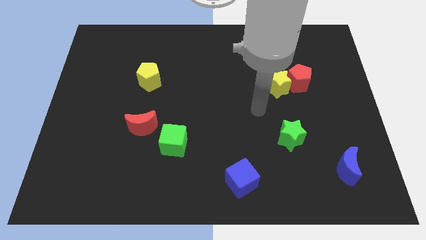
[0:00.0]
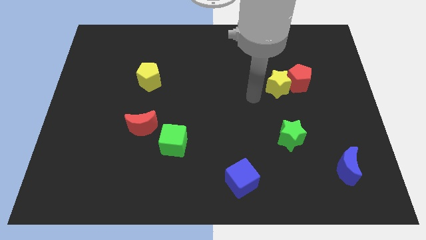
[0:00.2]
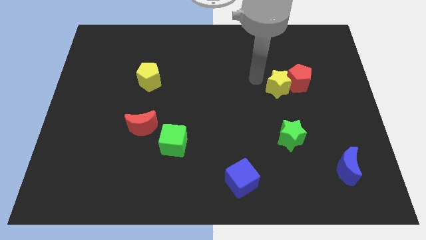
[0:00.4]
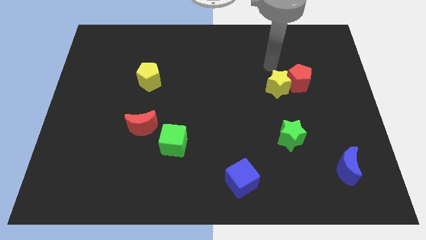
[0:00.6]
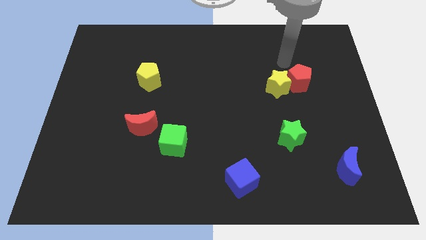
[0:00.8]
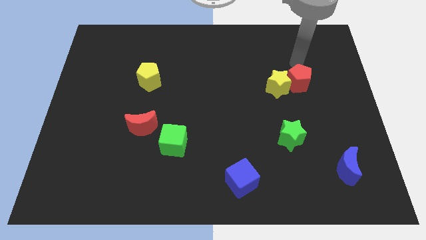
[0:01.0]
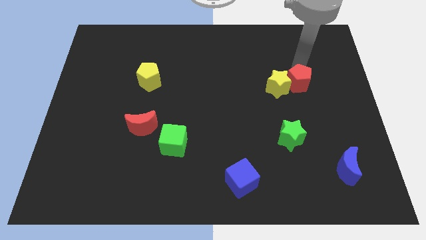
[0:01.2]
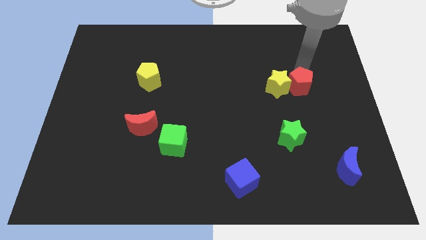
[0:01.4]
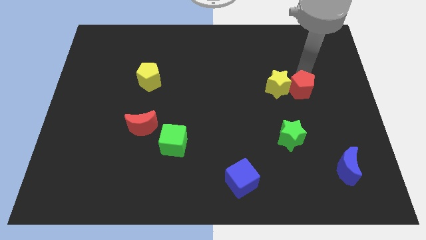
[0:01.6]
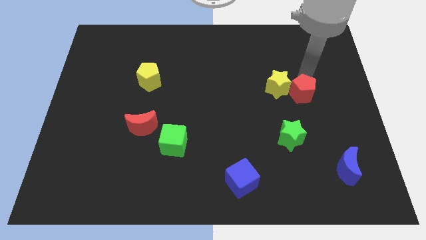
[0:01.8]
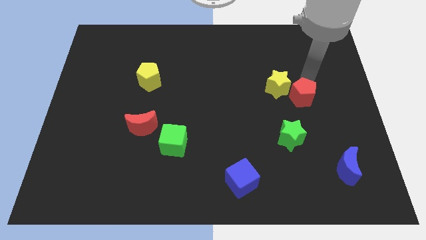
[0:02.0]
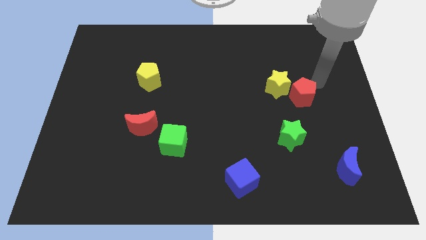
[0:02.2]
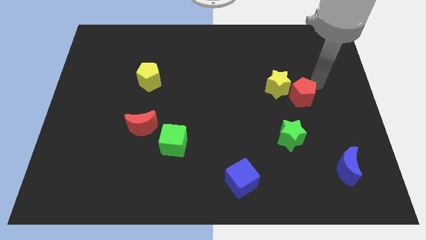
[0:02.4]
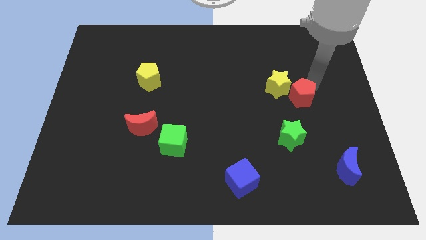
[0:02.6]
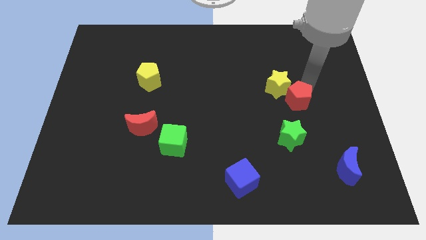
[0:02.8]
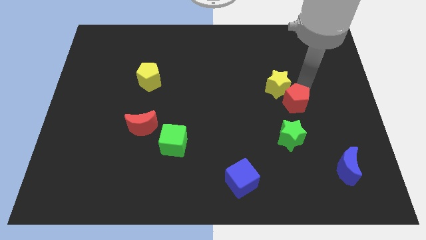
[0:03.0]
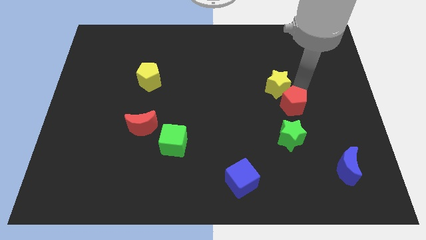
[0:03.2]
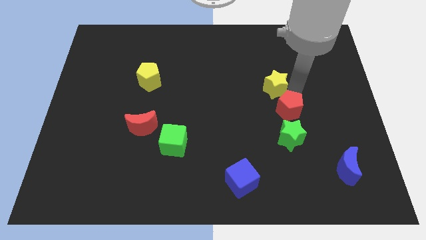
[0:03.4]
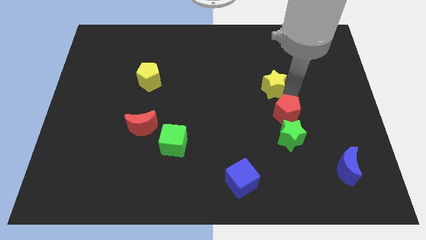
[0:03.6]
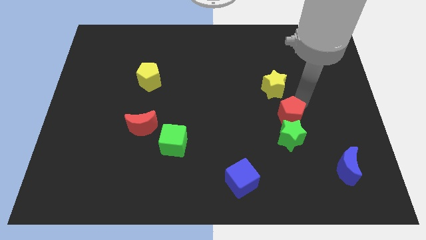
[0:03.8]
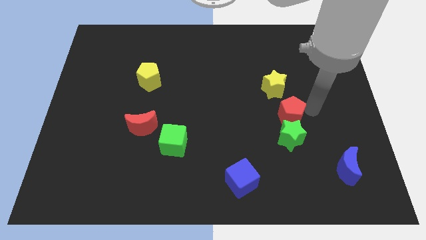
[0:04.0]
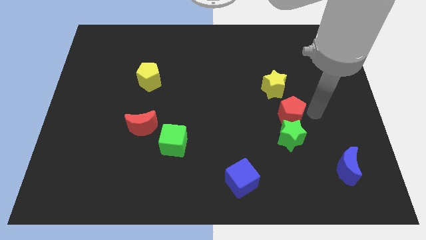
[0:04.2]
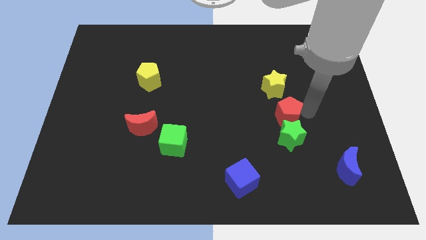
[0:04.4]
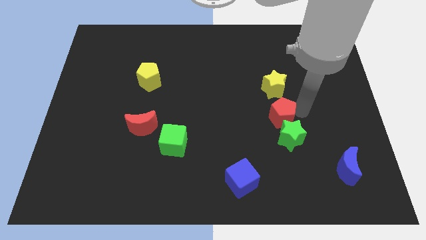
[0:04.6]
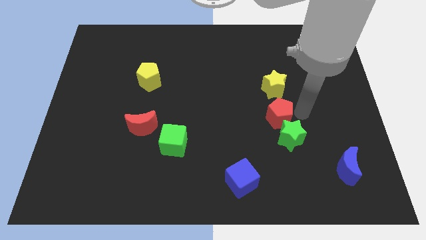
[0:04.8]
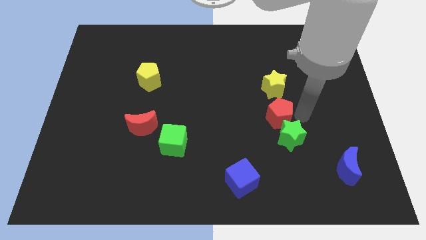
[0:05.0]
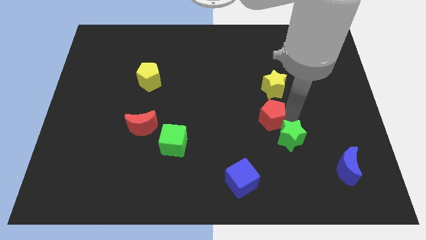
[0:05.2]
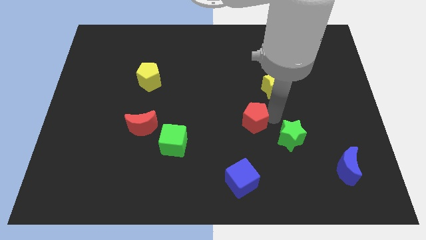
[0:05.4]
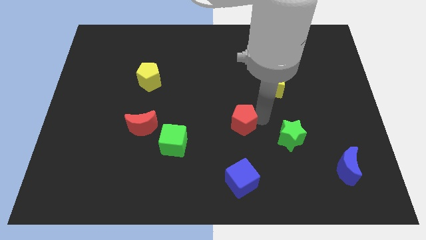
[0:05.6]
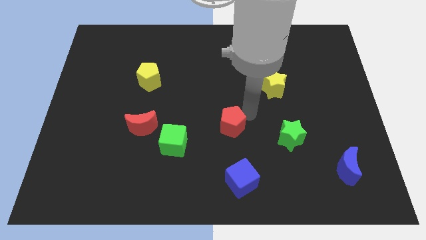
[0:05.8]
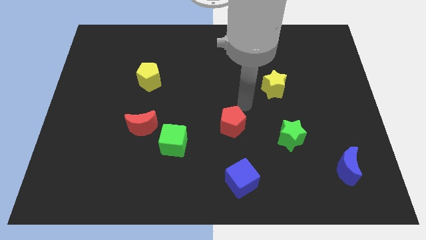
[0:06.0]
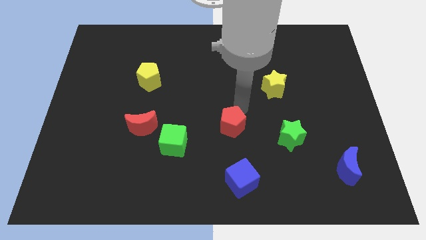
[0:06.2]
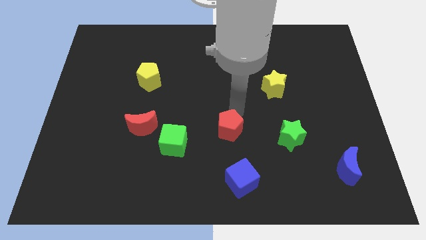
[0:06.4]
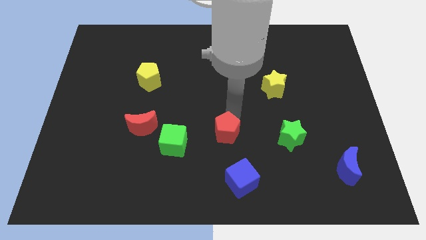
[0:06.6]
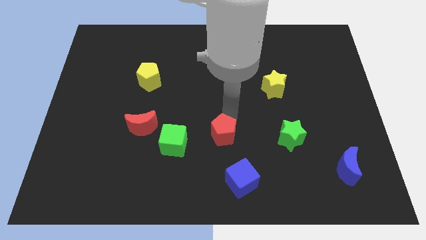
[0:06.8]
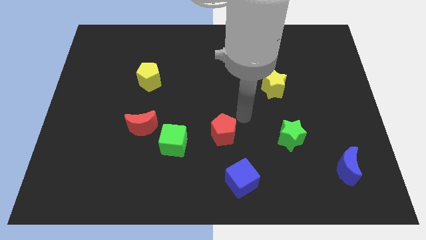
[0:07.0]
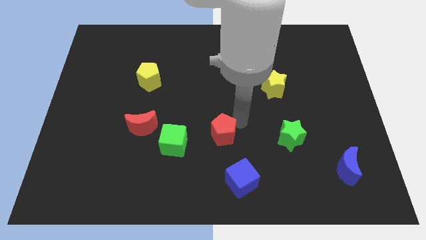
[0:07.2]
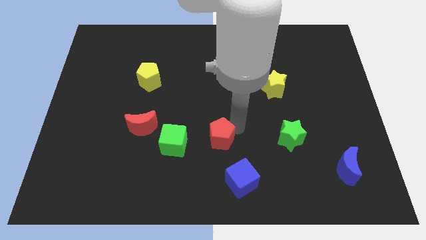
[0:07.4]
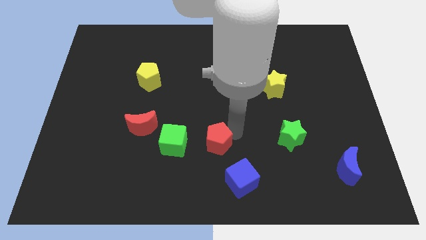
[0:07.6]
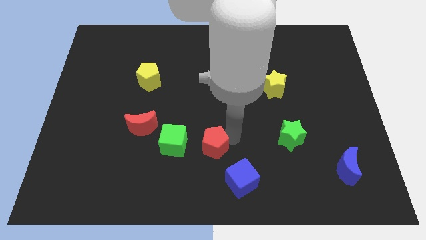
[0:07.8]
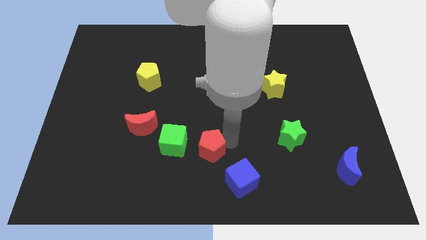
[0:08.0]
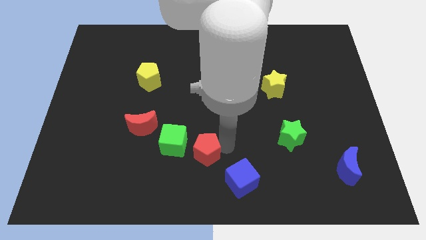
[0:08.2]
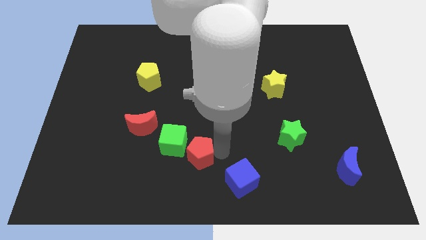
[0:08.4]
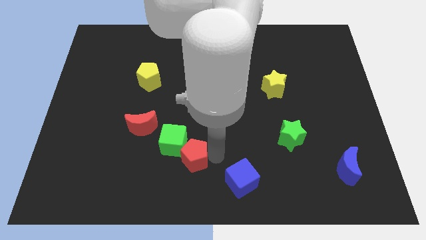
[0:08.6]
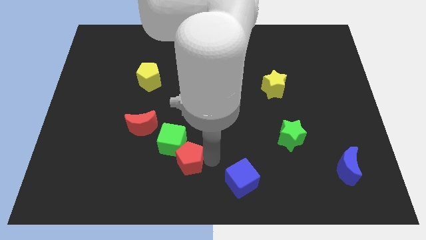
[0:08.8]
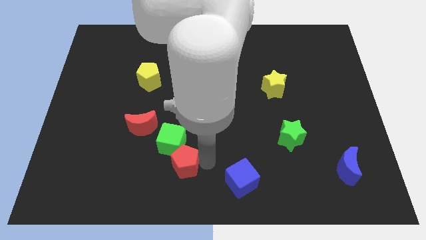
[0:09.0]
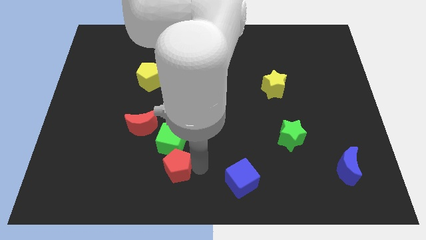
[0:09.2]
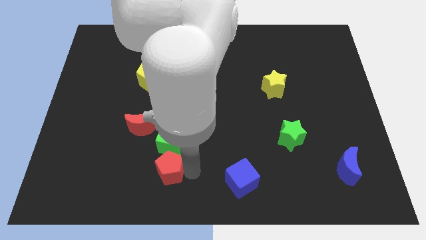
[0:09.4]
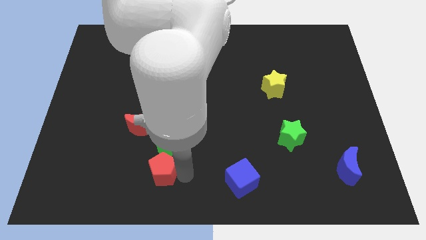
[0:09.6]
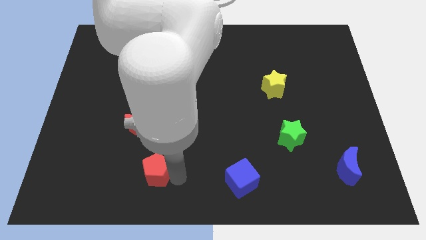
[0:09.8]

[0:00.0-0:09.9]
put the red pentagon below the red moon

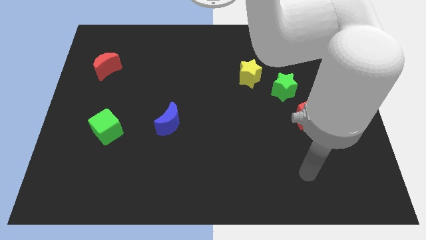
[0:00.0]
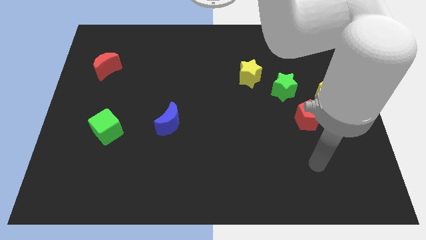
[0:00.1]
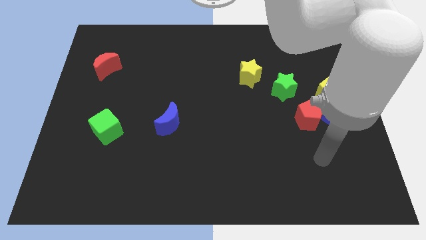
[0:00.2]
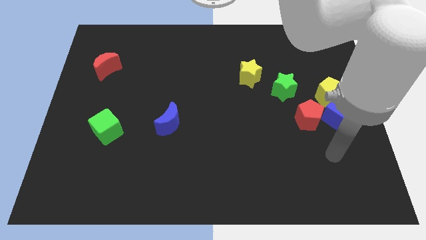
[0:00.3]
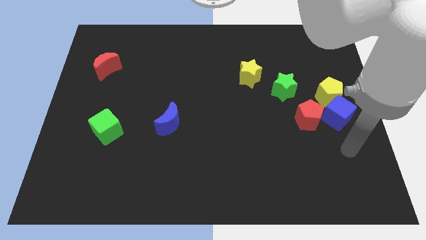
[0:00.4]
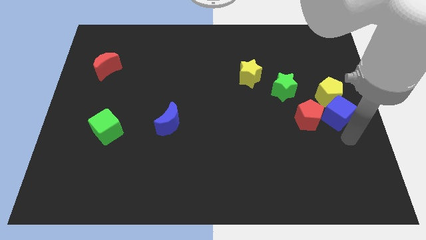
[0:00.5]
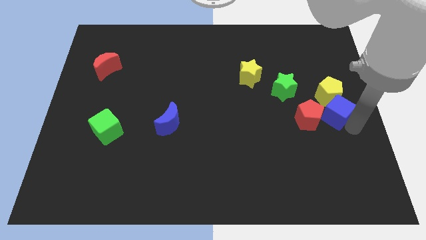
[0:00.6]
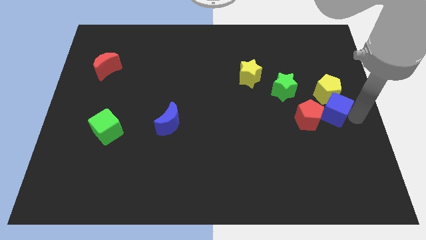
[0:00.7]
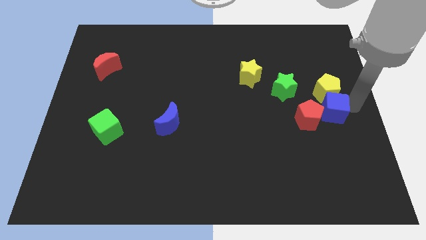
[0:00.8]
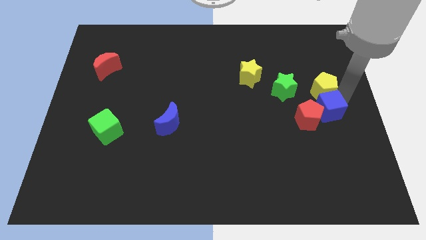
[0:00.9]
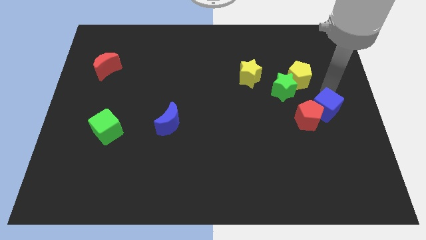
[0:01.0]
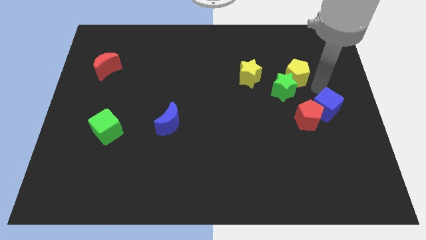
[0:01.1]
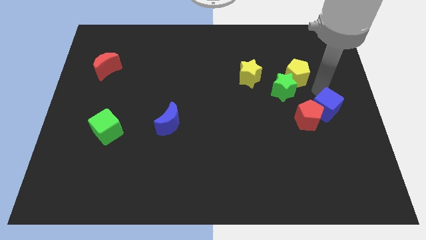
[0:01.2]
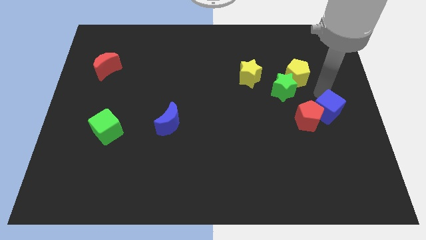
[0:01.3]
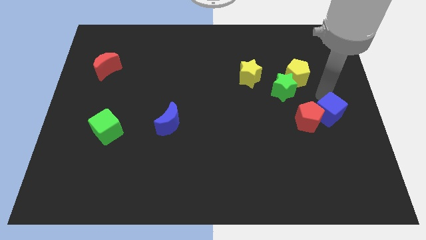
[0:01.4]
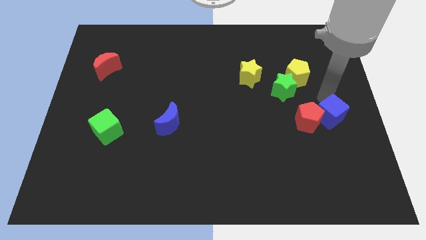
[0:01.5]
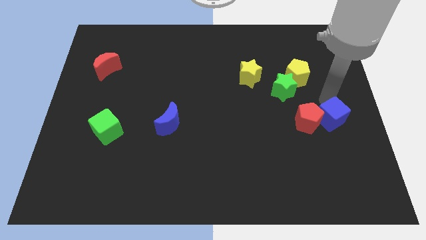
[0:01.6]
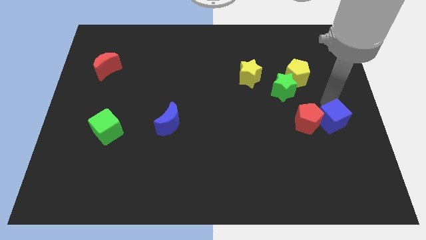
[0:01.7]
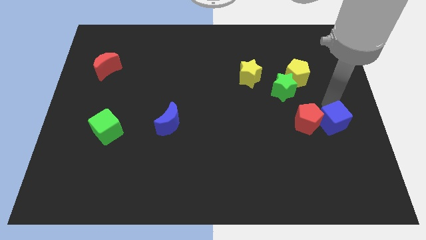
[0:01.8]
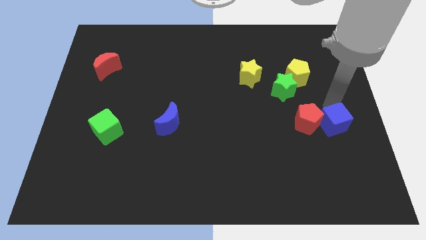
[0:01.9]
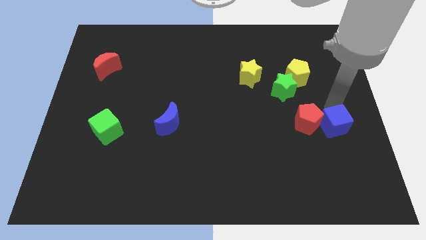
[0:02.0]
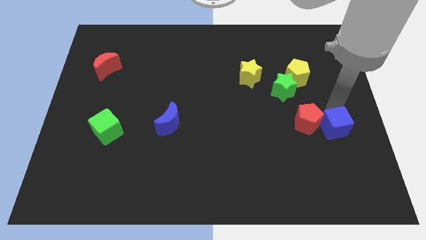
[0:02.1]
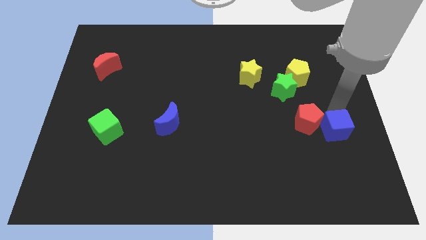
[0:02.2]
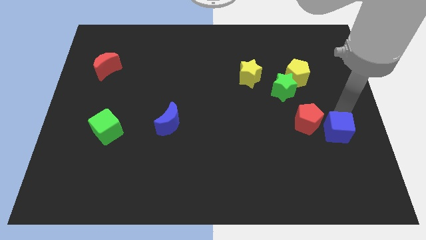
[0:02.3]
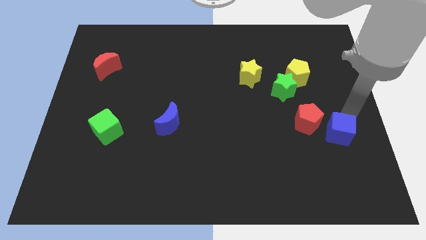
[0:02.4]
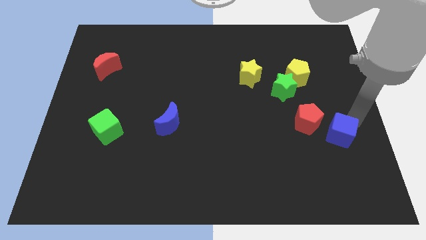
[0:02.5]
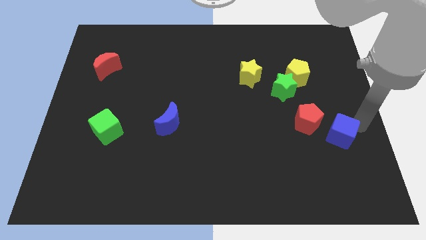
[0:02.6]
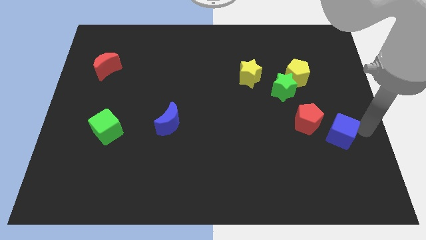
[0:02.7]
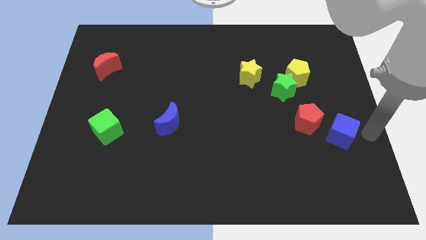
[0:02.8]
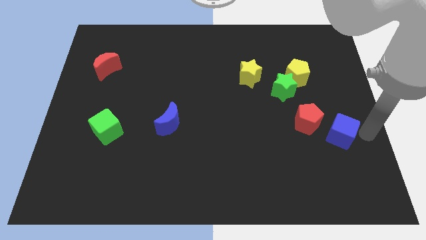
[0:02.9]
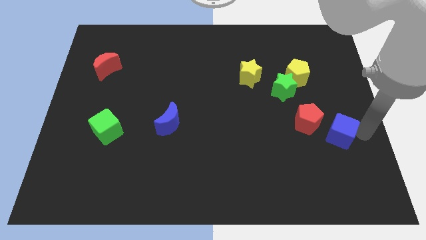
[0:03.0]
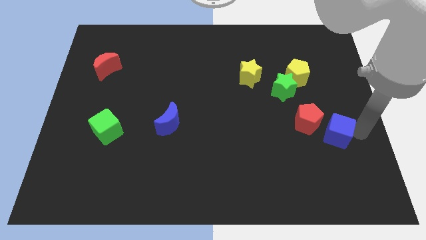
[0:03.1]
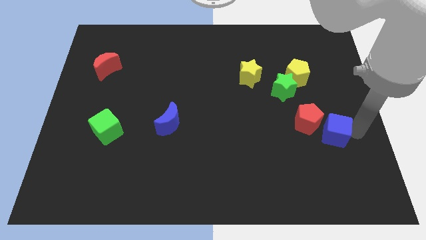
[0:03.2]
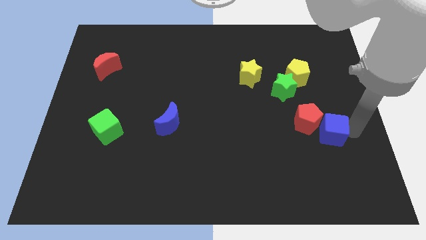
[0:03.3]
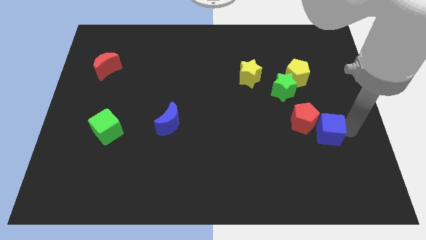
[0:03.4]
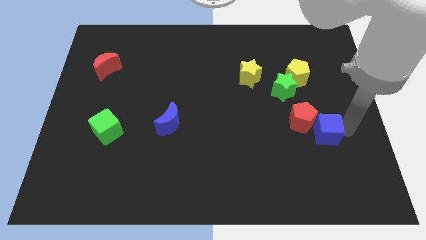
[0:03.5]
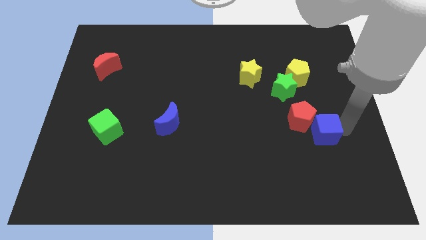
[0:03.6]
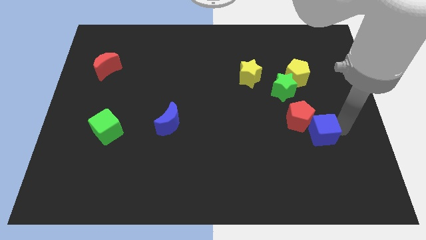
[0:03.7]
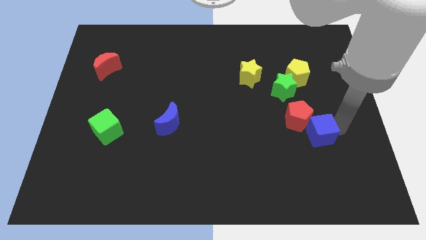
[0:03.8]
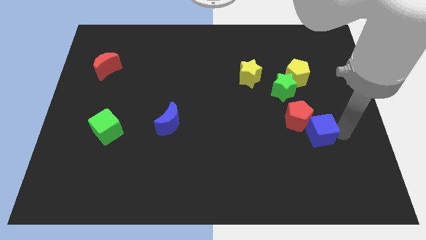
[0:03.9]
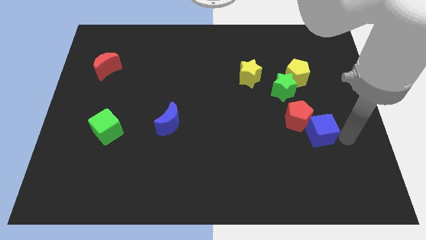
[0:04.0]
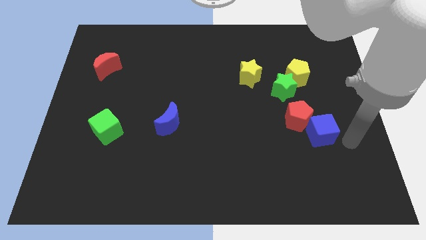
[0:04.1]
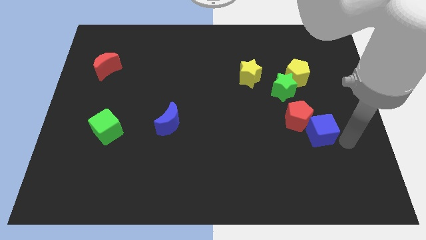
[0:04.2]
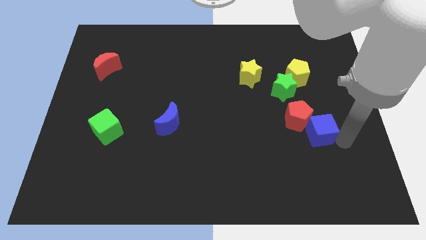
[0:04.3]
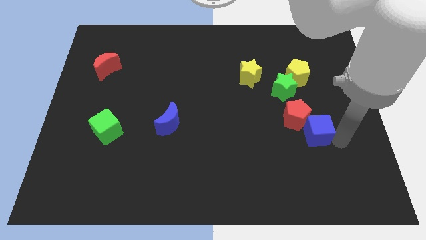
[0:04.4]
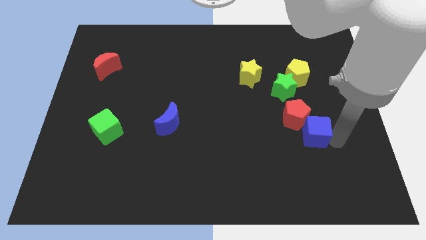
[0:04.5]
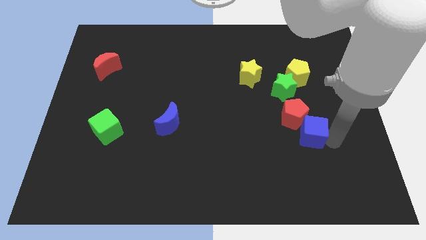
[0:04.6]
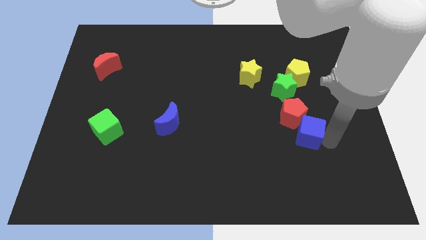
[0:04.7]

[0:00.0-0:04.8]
put the blue cube to the bottom of the green star
